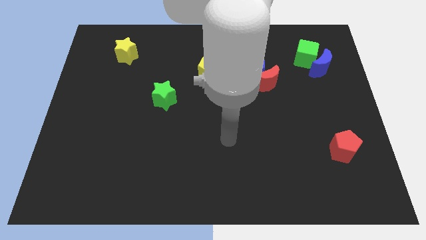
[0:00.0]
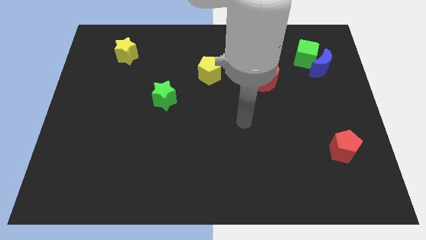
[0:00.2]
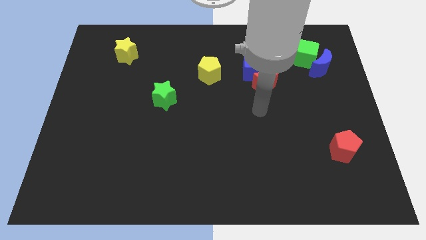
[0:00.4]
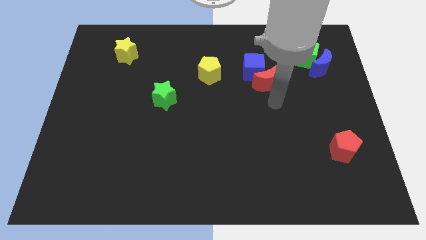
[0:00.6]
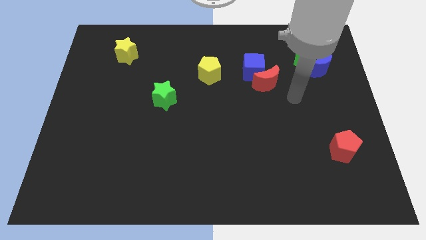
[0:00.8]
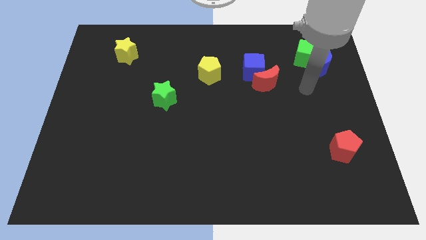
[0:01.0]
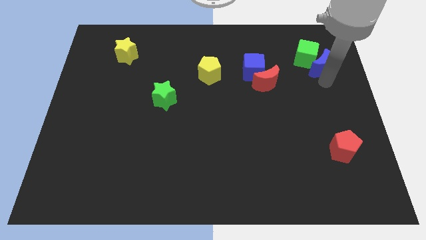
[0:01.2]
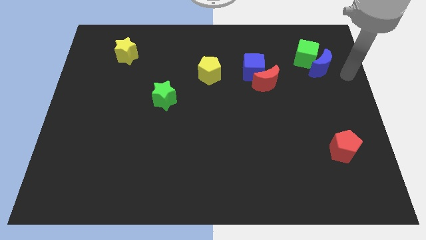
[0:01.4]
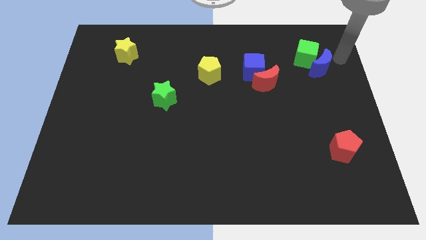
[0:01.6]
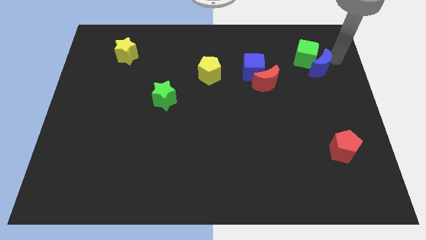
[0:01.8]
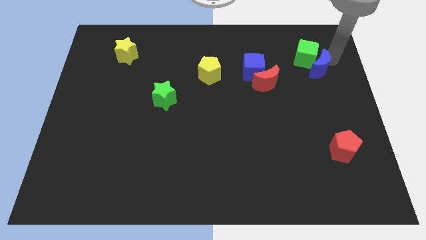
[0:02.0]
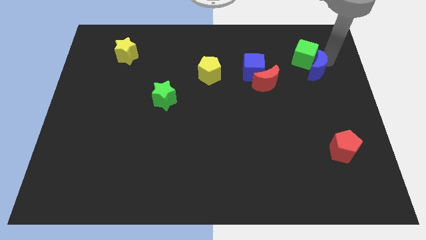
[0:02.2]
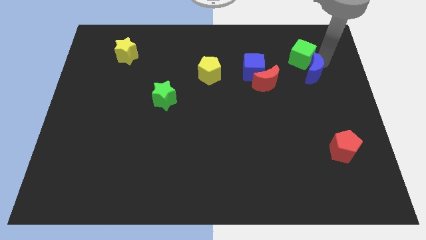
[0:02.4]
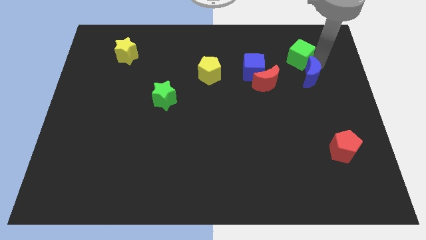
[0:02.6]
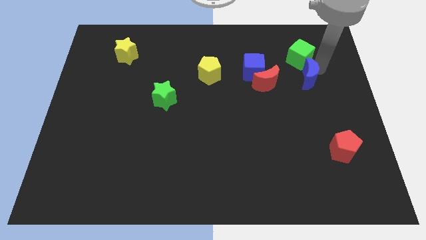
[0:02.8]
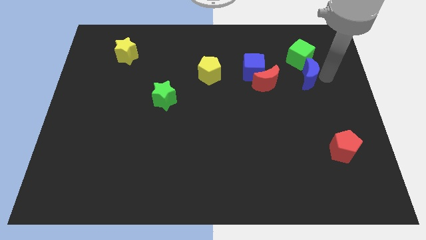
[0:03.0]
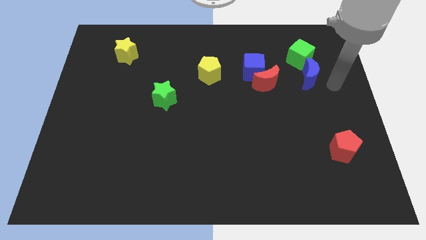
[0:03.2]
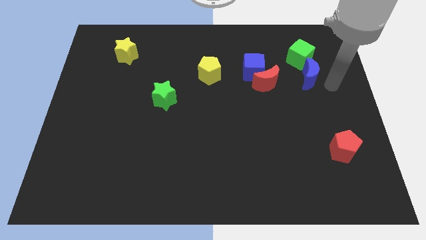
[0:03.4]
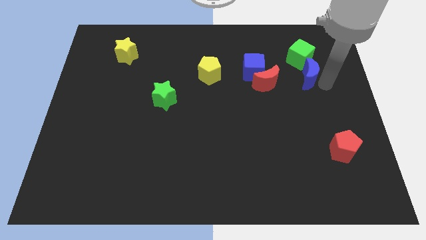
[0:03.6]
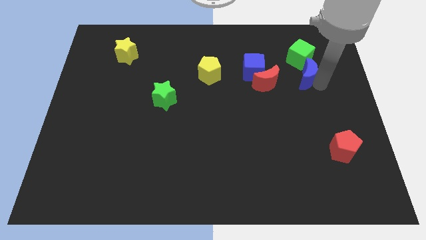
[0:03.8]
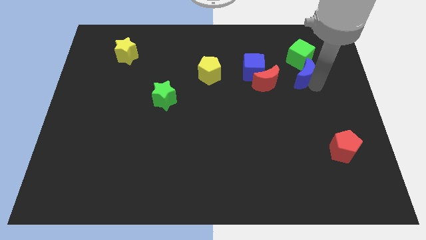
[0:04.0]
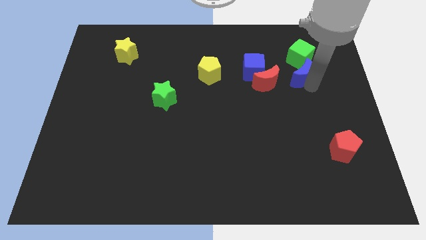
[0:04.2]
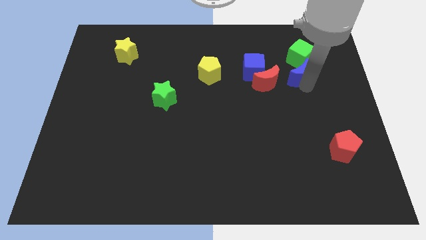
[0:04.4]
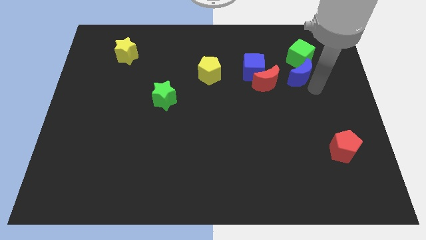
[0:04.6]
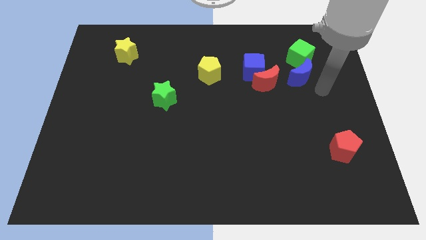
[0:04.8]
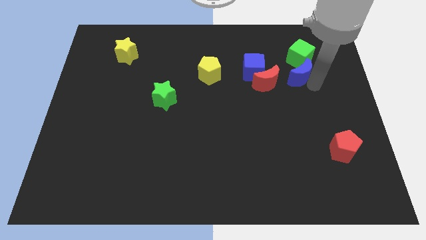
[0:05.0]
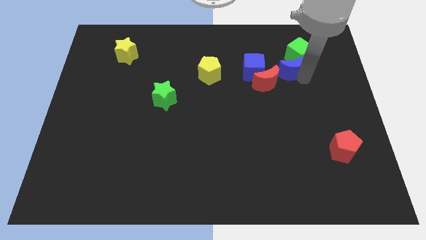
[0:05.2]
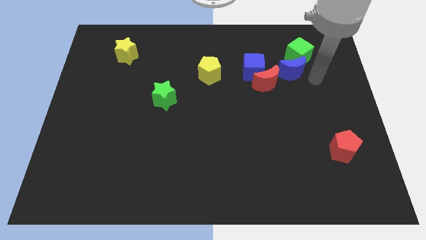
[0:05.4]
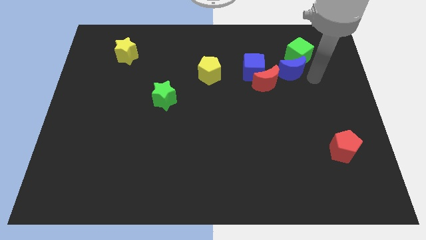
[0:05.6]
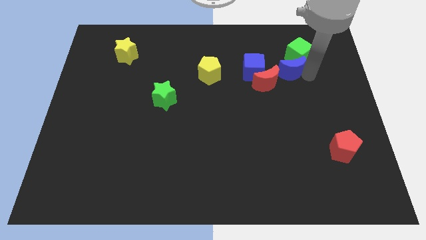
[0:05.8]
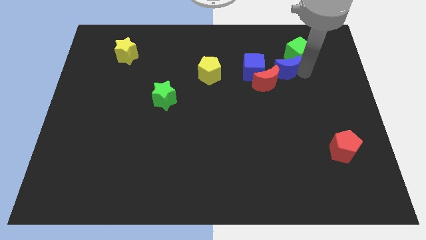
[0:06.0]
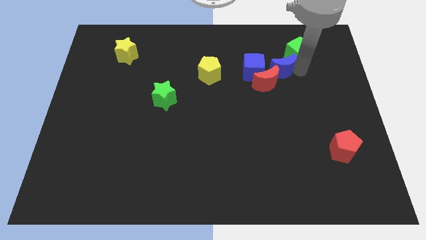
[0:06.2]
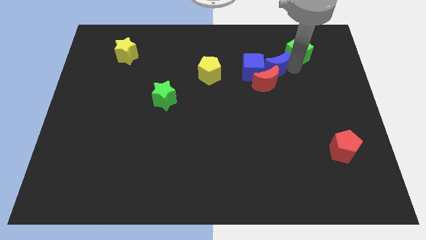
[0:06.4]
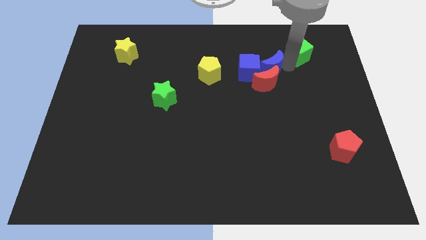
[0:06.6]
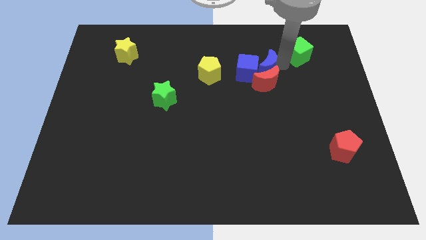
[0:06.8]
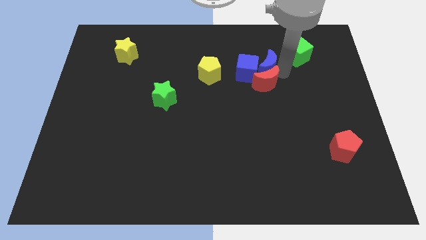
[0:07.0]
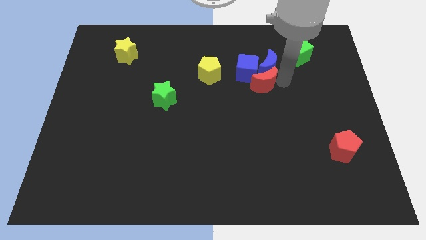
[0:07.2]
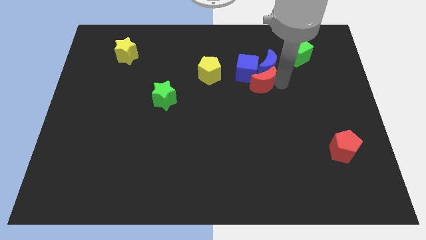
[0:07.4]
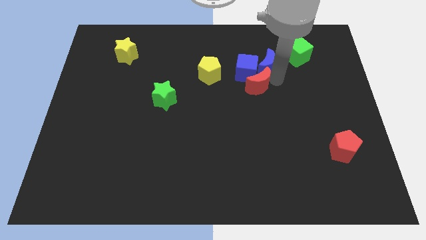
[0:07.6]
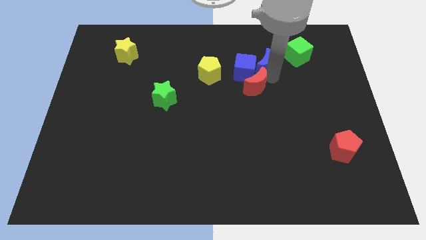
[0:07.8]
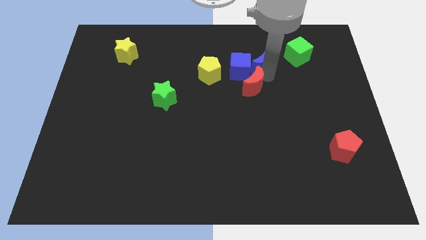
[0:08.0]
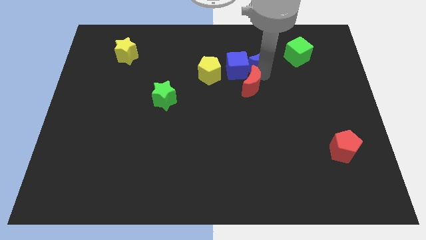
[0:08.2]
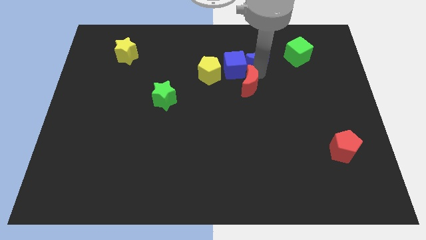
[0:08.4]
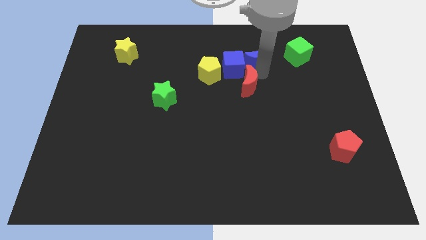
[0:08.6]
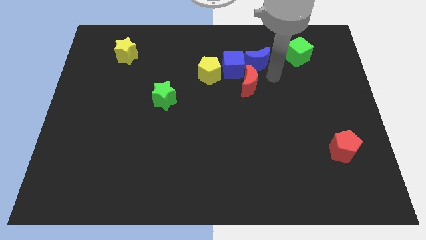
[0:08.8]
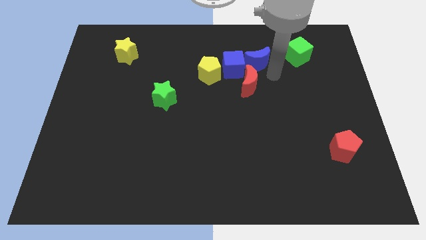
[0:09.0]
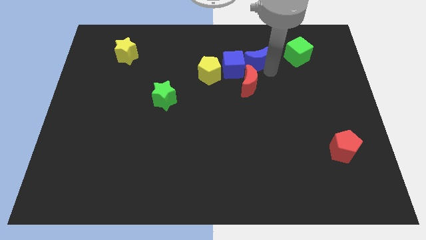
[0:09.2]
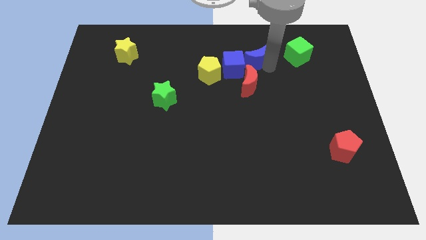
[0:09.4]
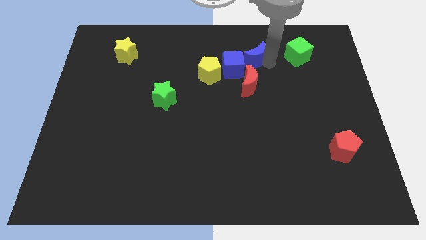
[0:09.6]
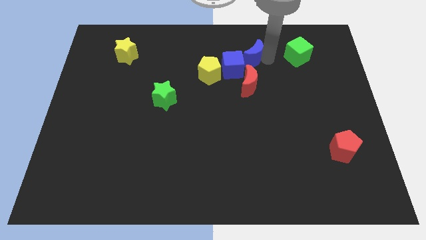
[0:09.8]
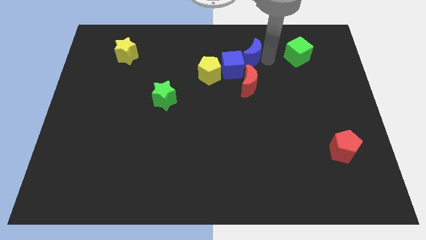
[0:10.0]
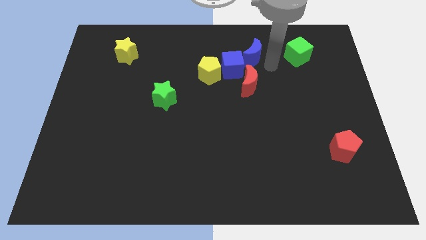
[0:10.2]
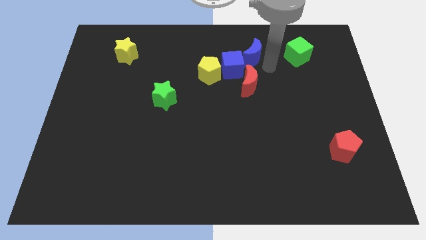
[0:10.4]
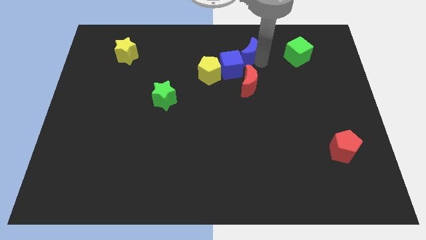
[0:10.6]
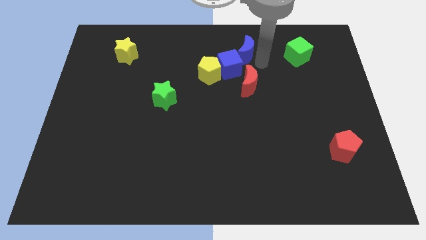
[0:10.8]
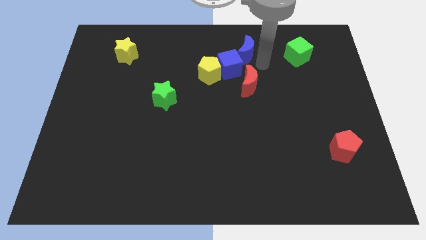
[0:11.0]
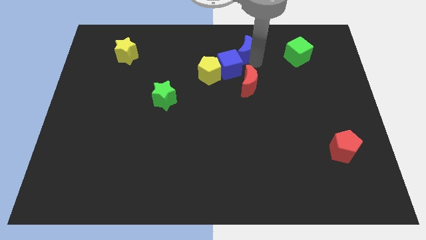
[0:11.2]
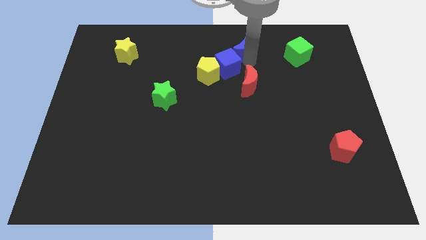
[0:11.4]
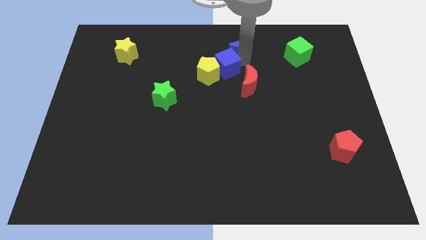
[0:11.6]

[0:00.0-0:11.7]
put the blue moon to the towards your base
